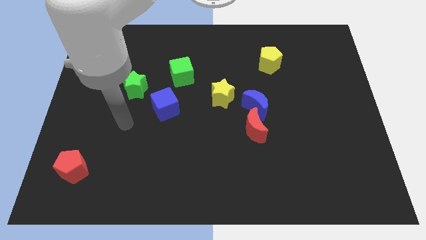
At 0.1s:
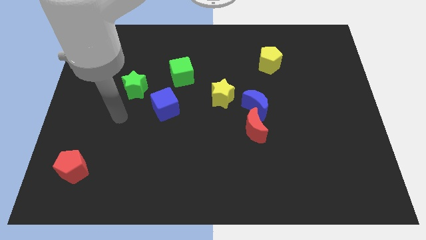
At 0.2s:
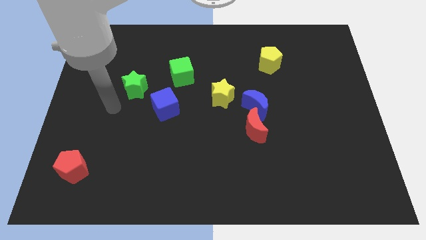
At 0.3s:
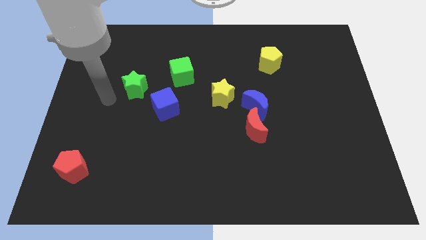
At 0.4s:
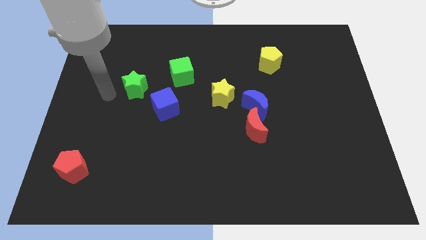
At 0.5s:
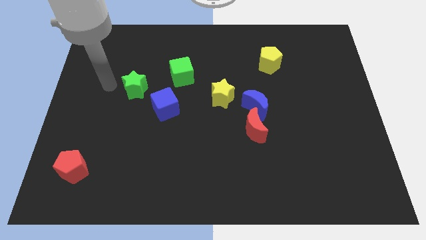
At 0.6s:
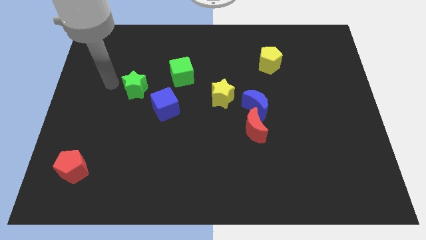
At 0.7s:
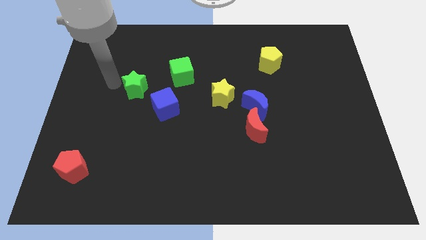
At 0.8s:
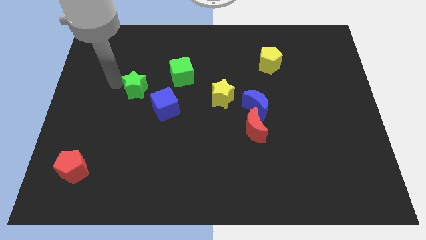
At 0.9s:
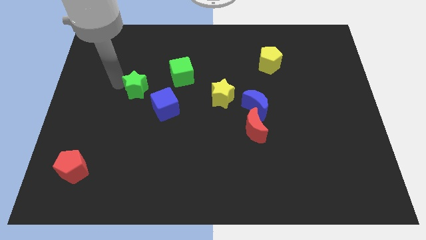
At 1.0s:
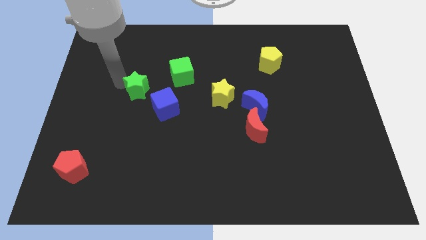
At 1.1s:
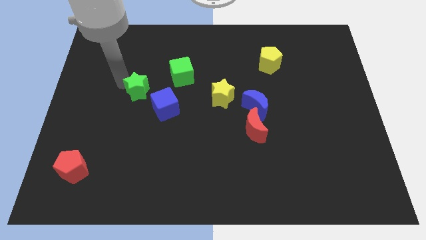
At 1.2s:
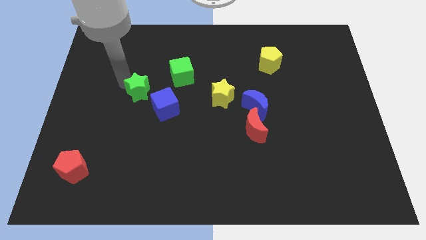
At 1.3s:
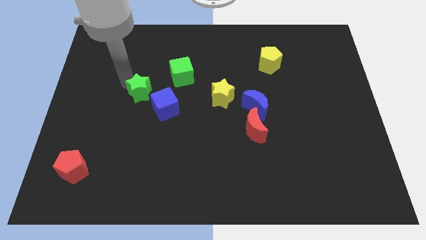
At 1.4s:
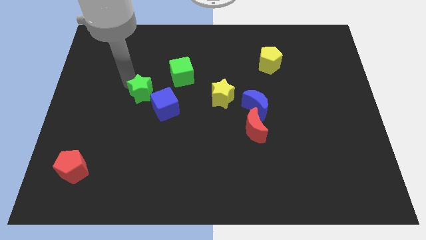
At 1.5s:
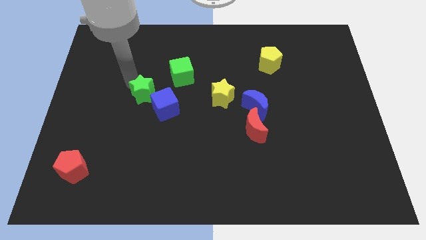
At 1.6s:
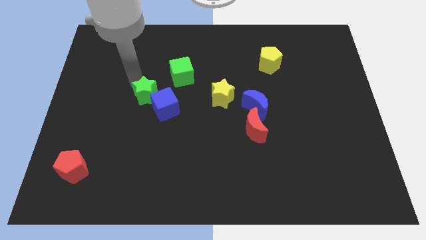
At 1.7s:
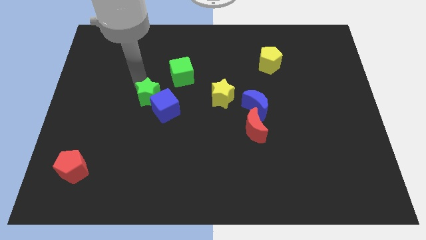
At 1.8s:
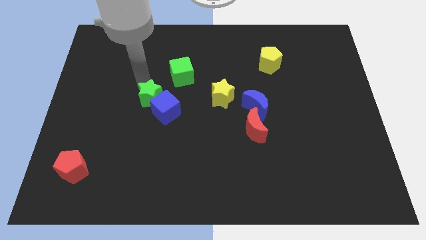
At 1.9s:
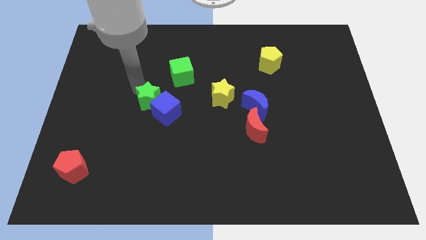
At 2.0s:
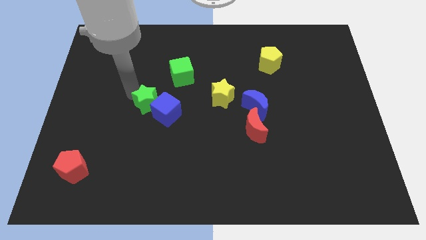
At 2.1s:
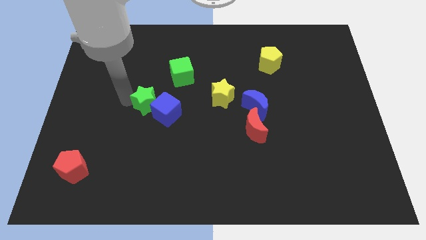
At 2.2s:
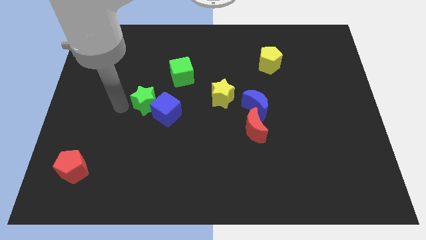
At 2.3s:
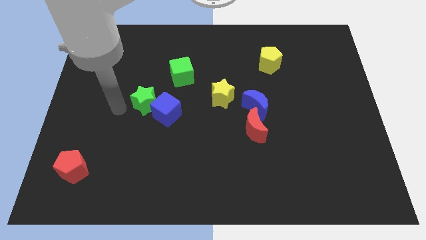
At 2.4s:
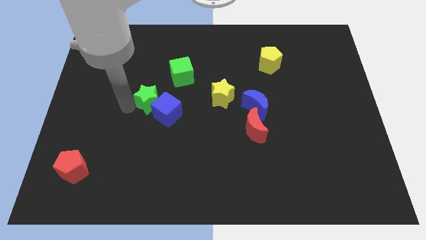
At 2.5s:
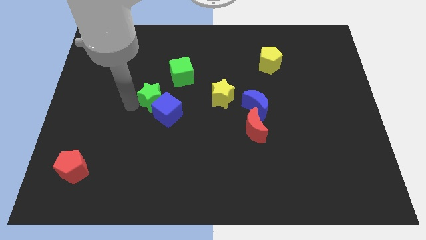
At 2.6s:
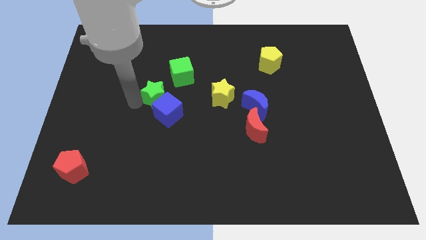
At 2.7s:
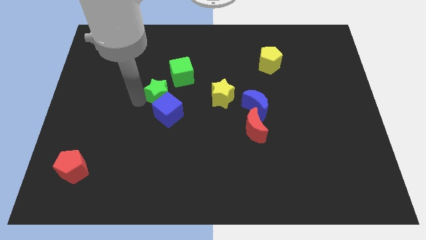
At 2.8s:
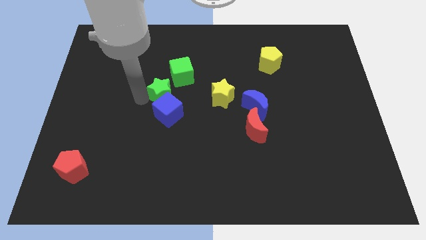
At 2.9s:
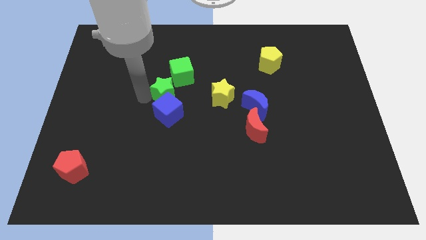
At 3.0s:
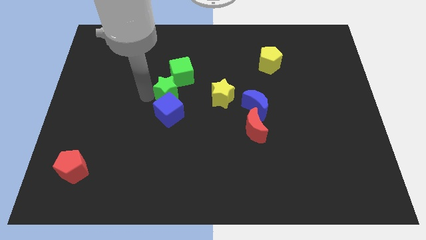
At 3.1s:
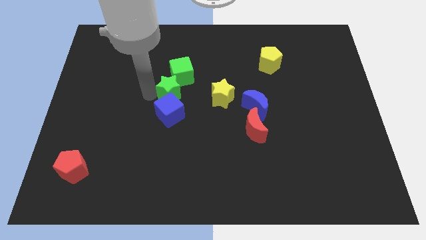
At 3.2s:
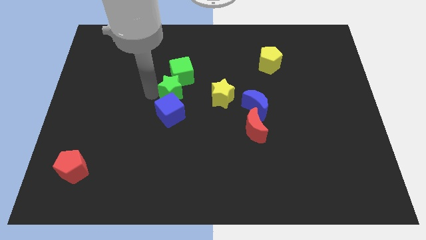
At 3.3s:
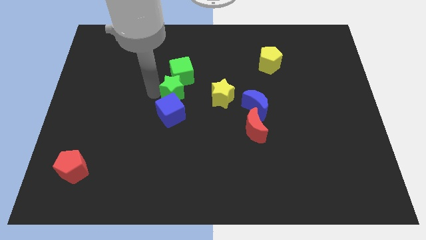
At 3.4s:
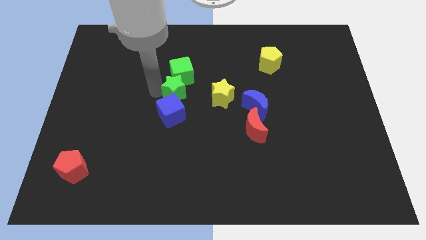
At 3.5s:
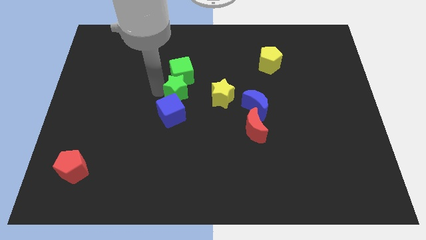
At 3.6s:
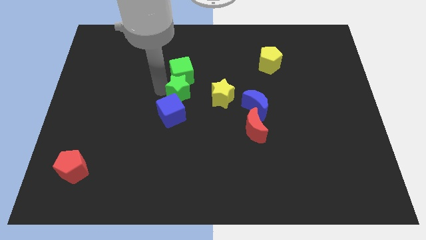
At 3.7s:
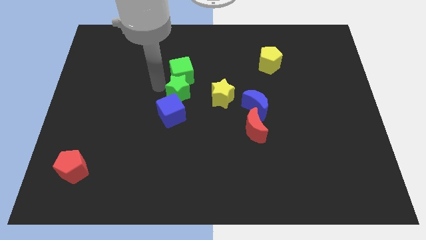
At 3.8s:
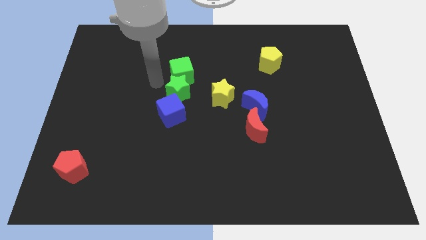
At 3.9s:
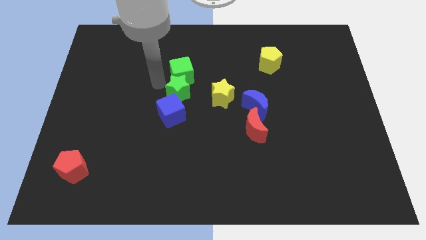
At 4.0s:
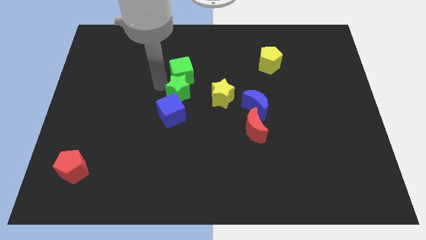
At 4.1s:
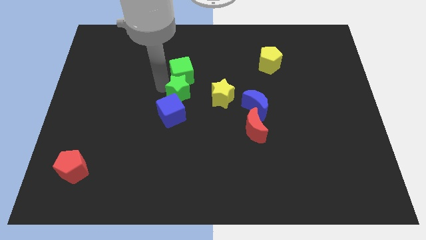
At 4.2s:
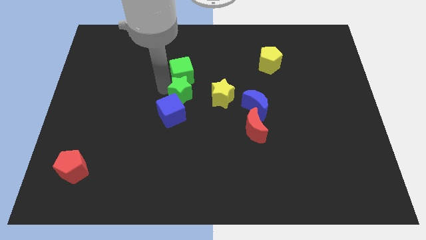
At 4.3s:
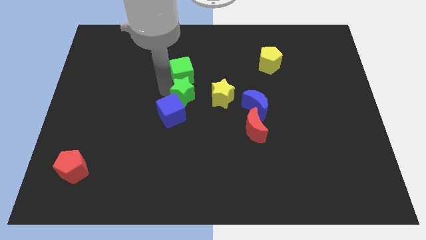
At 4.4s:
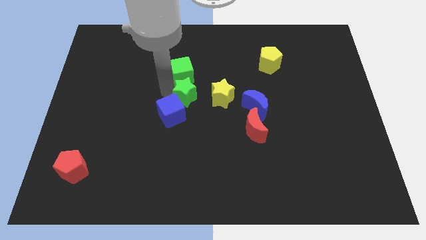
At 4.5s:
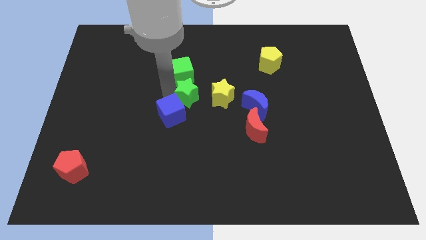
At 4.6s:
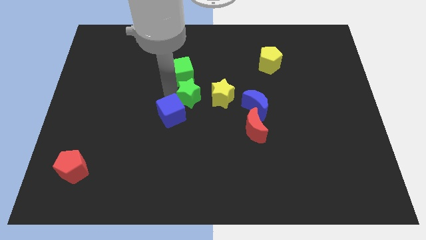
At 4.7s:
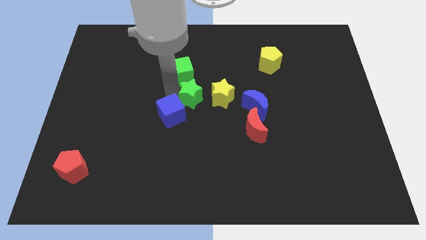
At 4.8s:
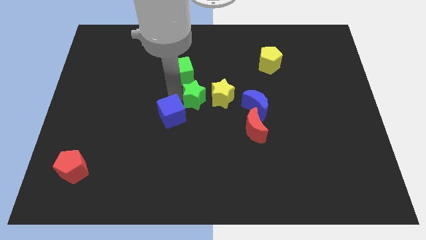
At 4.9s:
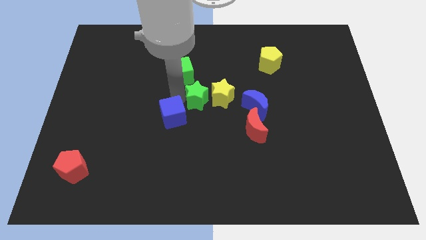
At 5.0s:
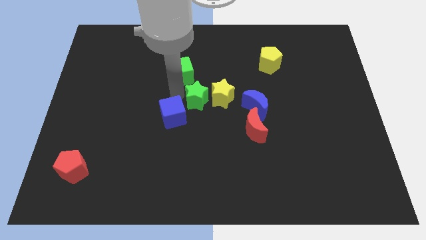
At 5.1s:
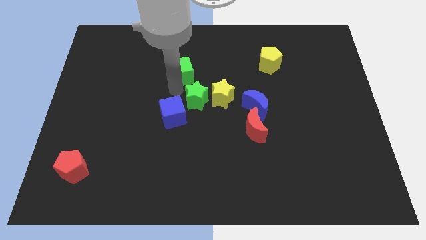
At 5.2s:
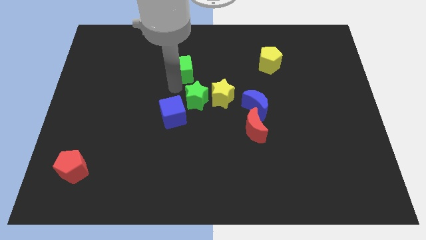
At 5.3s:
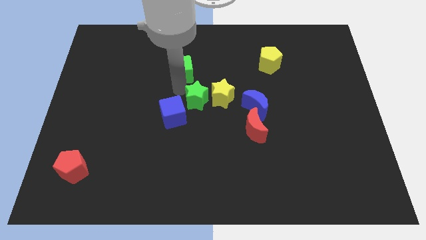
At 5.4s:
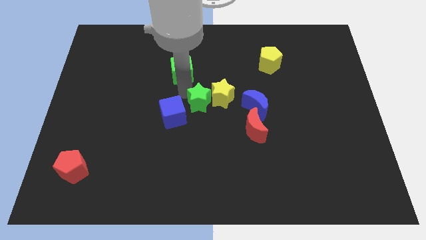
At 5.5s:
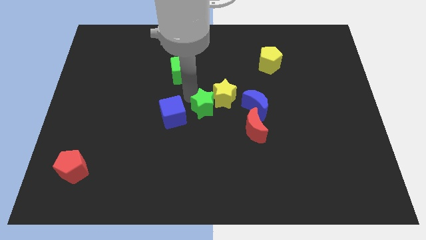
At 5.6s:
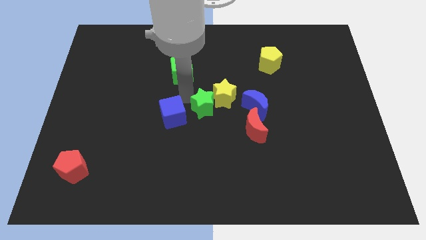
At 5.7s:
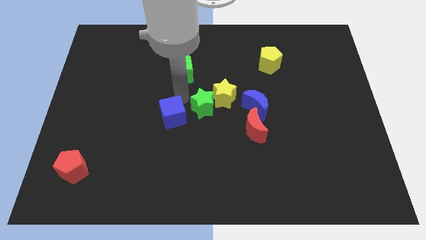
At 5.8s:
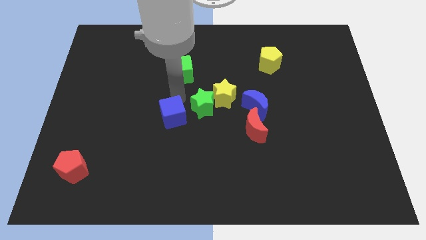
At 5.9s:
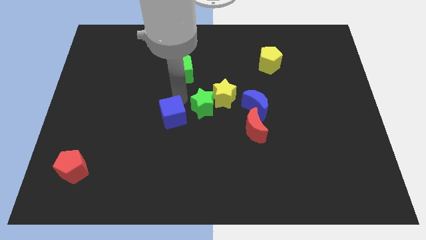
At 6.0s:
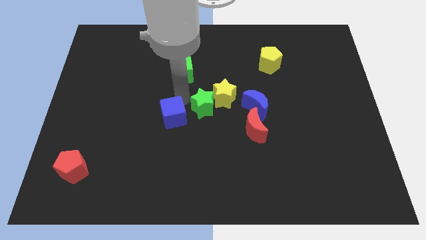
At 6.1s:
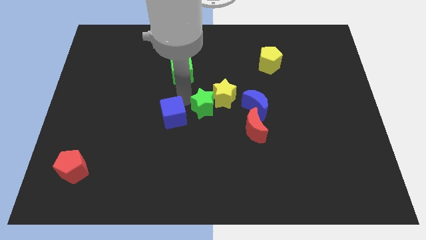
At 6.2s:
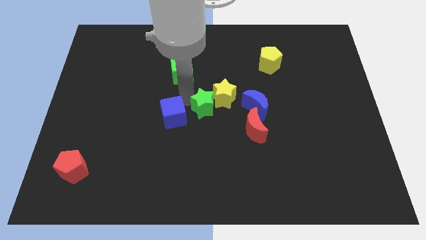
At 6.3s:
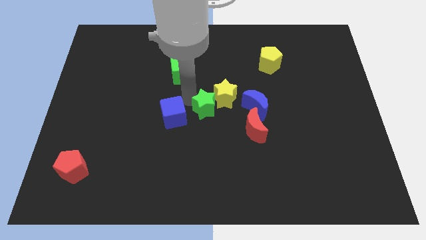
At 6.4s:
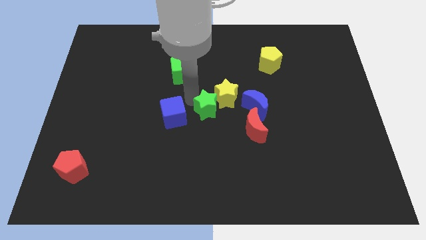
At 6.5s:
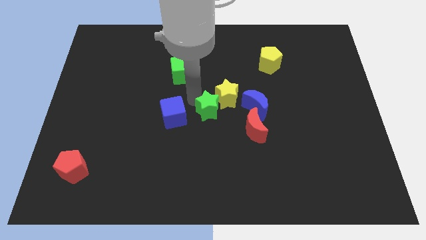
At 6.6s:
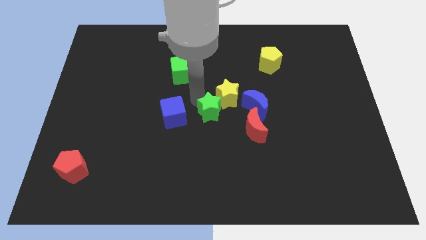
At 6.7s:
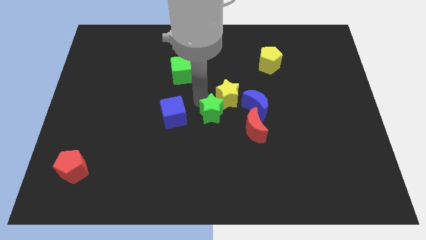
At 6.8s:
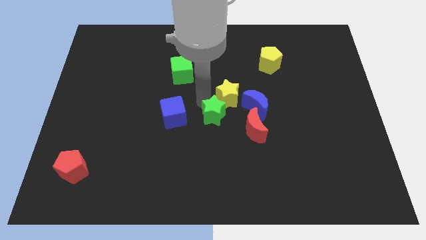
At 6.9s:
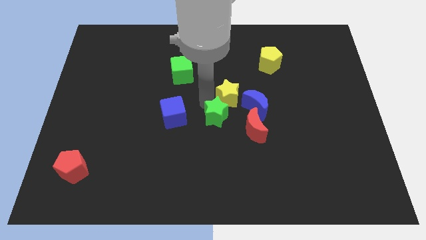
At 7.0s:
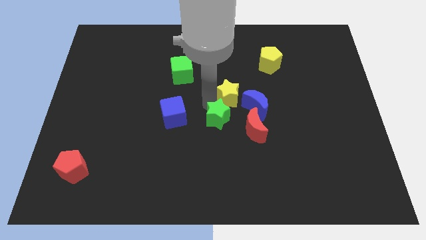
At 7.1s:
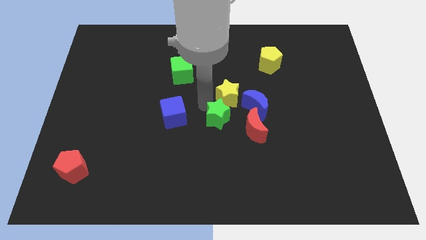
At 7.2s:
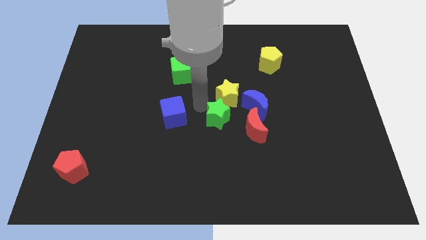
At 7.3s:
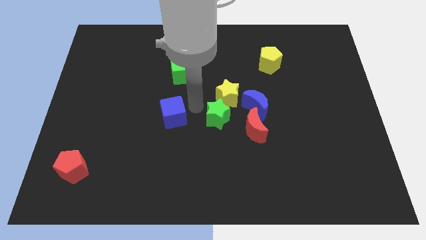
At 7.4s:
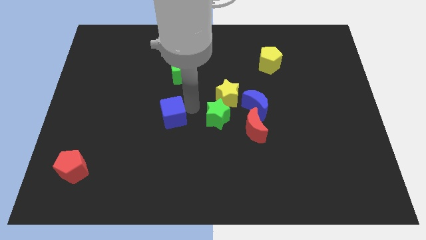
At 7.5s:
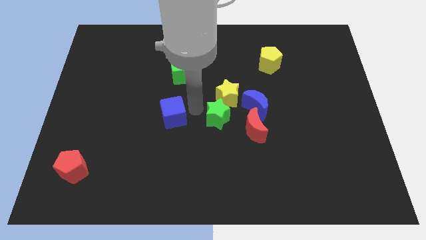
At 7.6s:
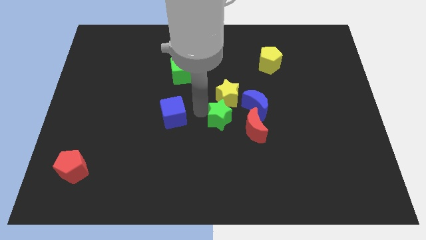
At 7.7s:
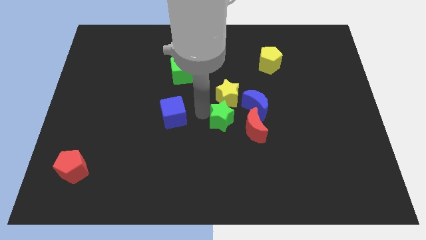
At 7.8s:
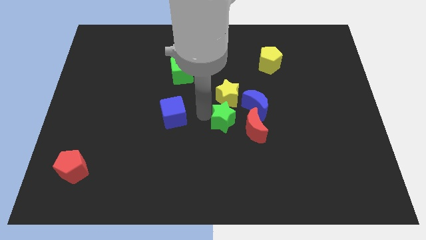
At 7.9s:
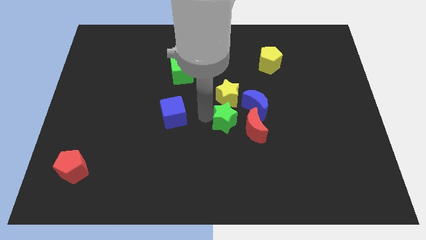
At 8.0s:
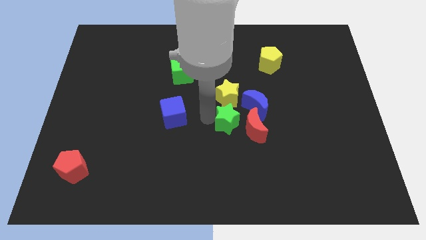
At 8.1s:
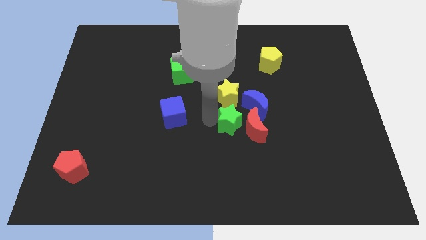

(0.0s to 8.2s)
put the green star to the red moon

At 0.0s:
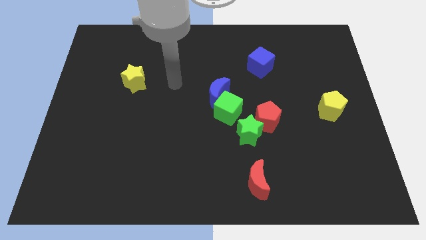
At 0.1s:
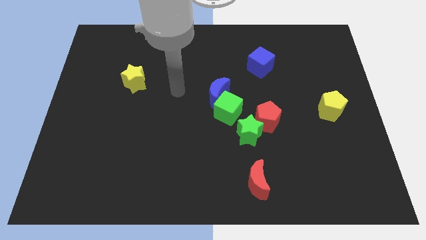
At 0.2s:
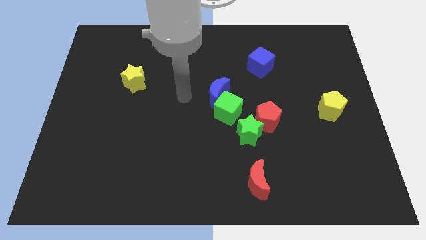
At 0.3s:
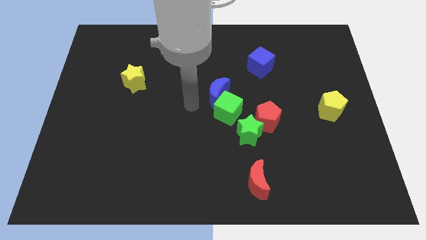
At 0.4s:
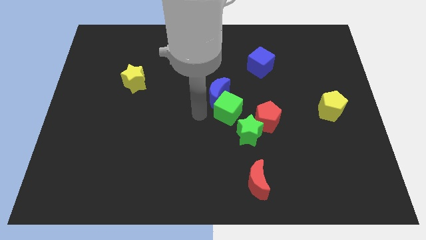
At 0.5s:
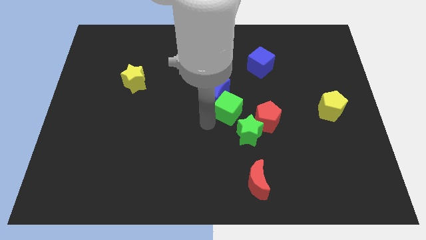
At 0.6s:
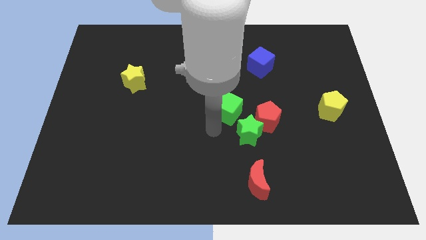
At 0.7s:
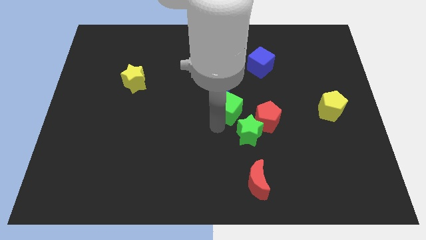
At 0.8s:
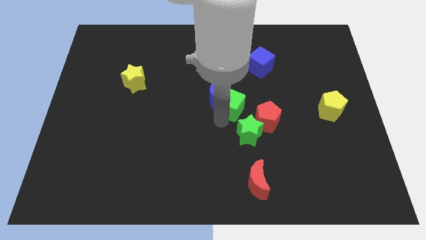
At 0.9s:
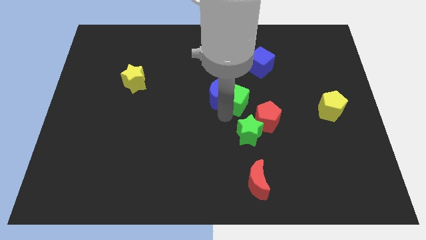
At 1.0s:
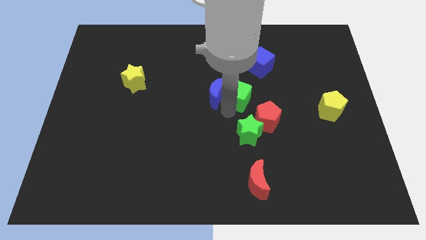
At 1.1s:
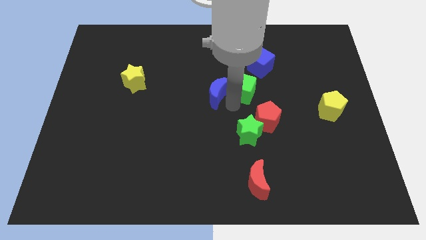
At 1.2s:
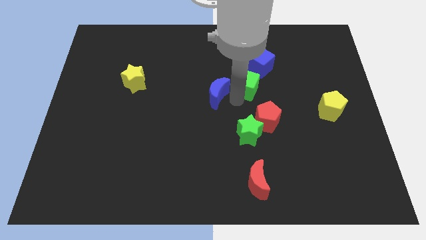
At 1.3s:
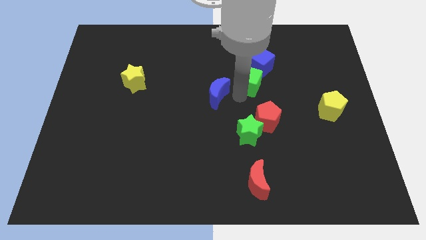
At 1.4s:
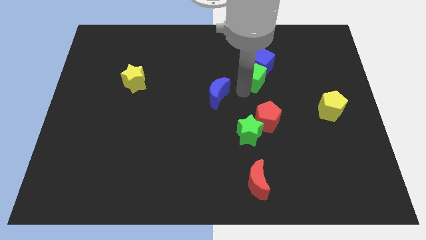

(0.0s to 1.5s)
push the green cube next to the blue cube
